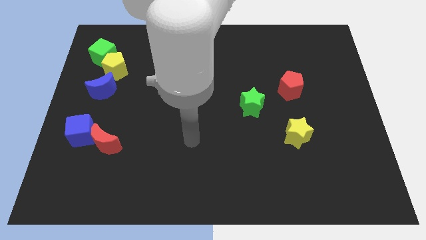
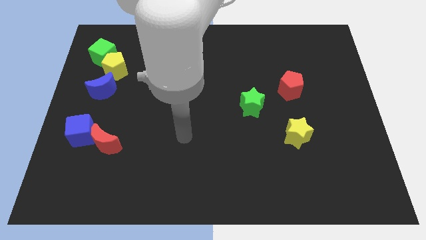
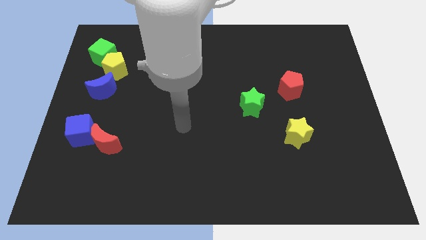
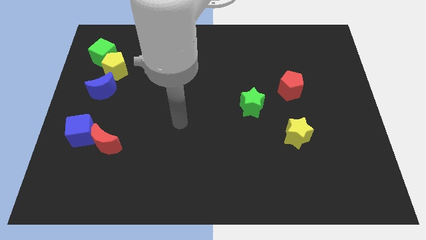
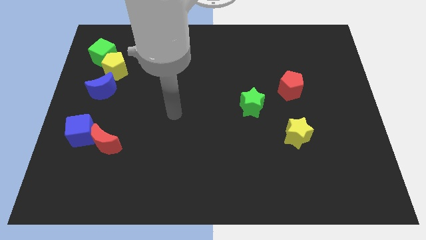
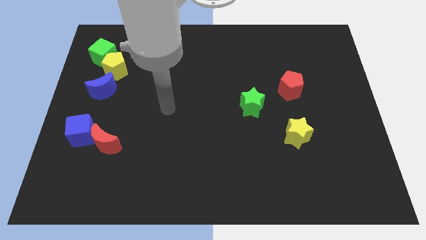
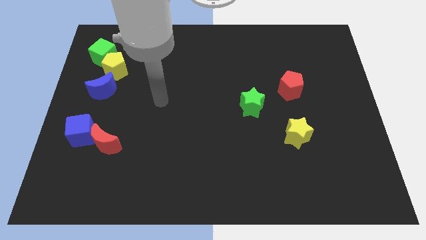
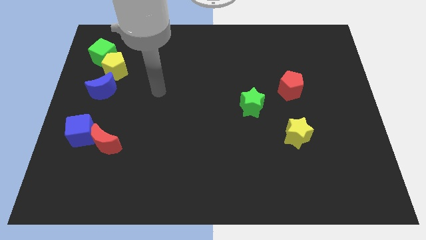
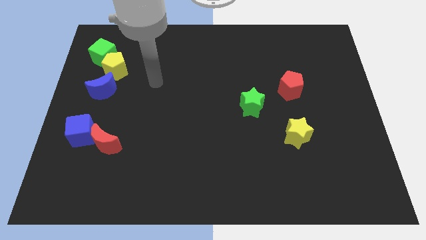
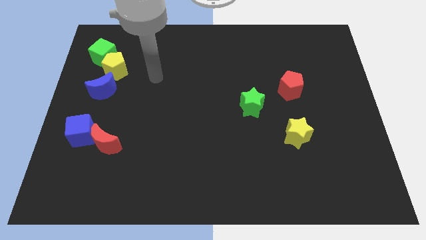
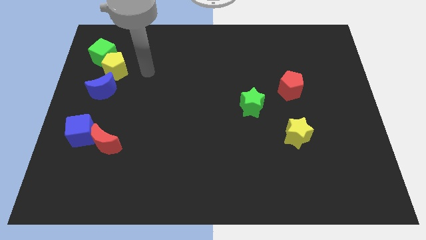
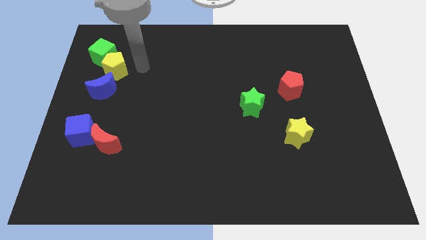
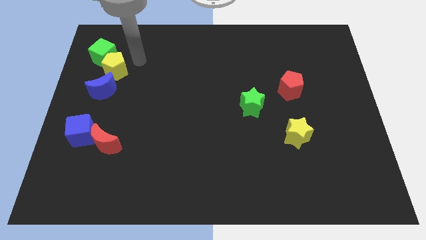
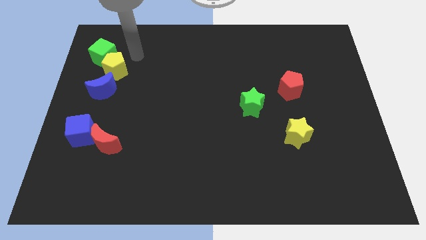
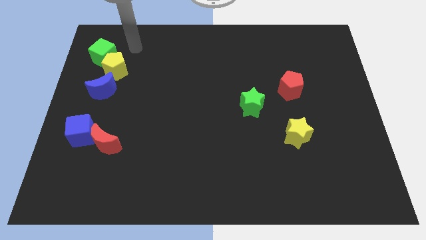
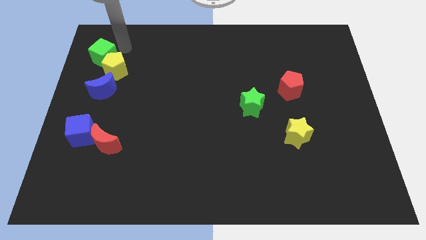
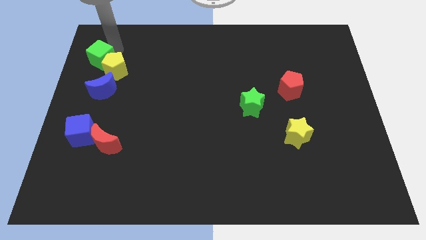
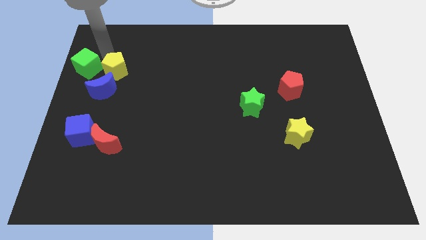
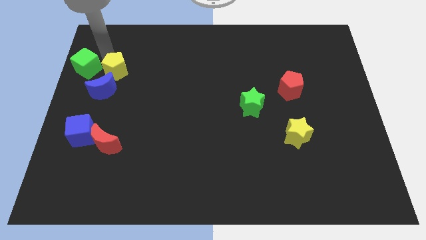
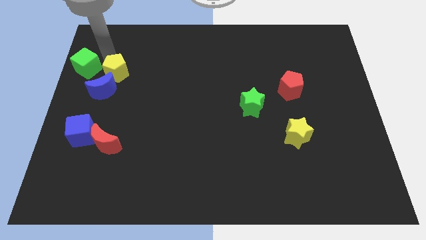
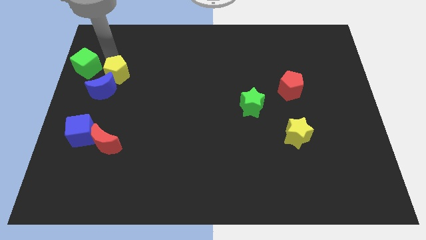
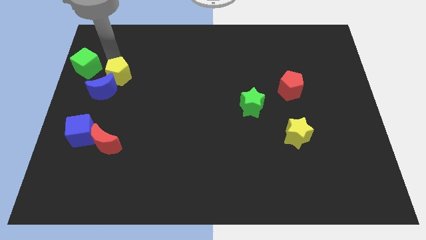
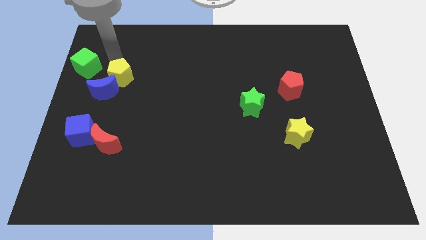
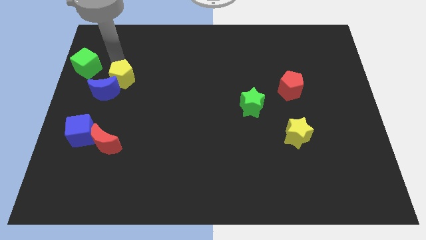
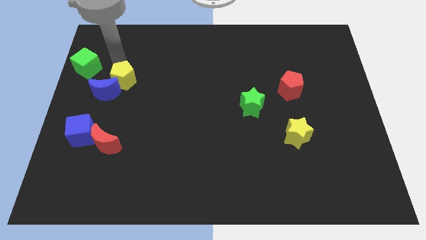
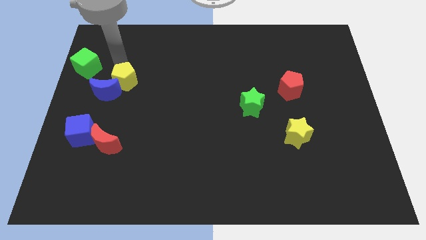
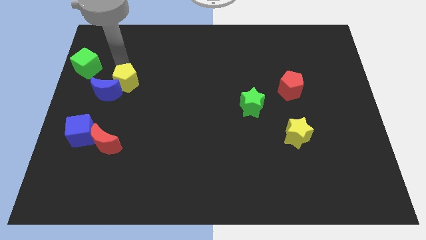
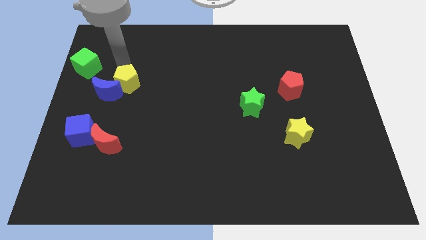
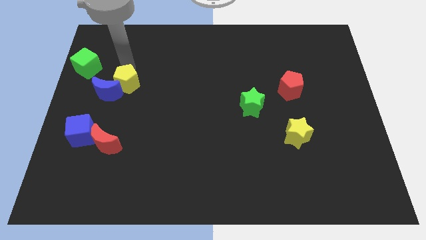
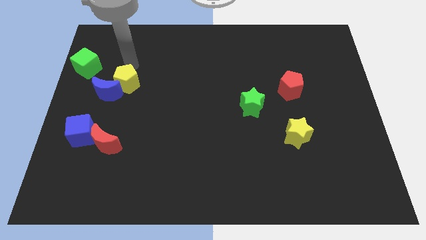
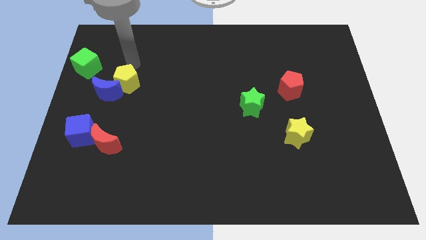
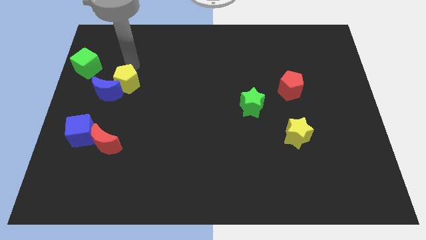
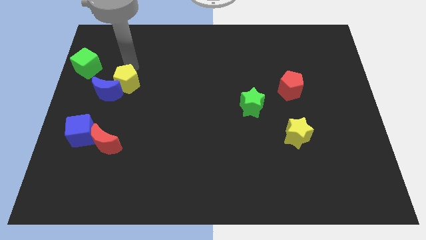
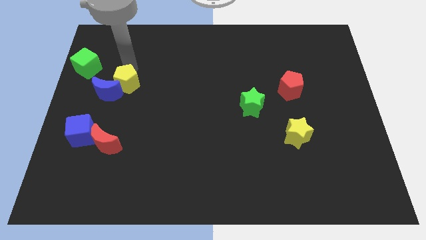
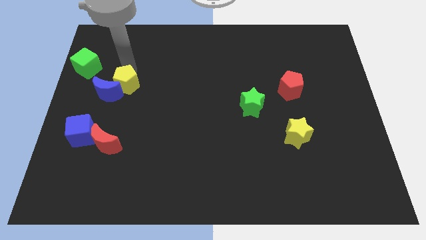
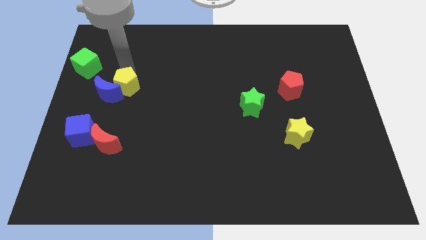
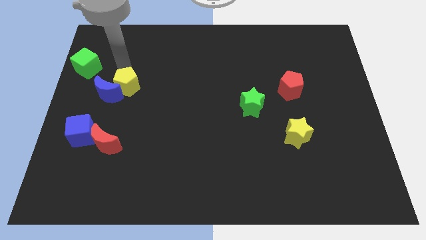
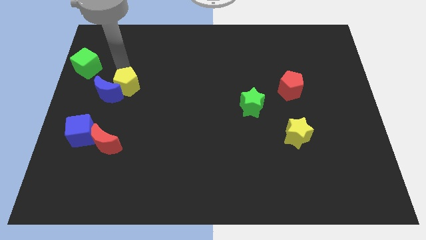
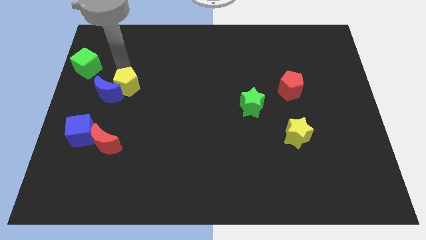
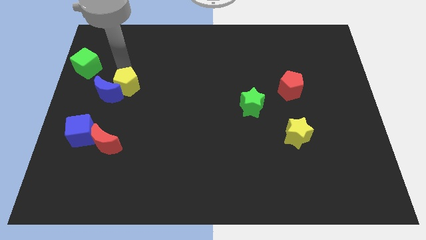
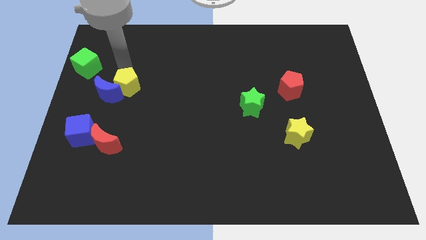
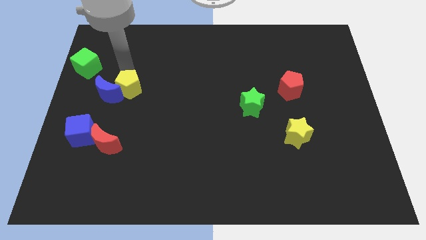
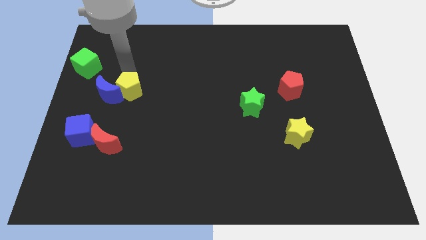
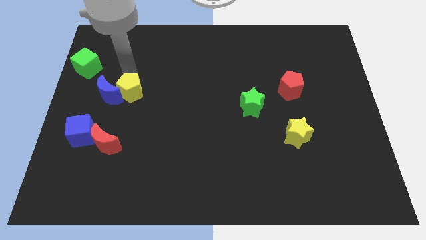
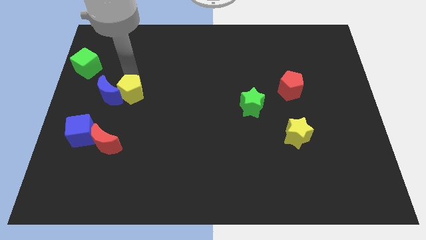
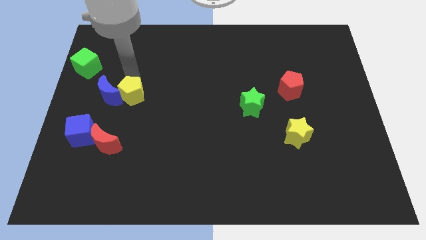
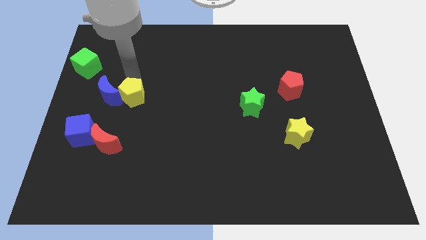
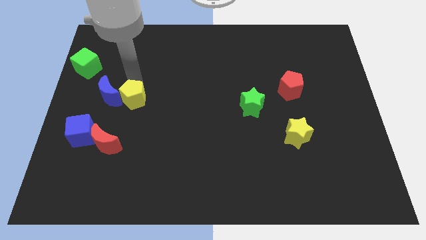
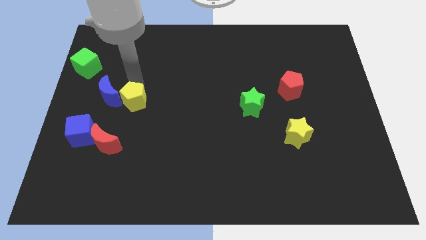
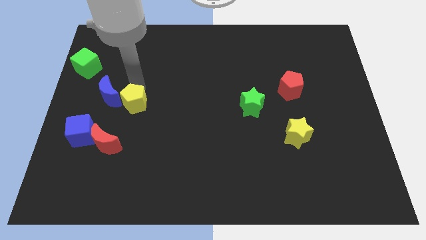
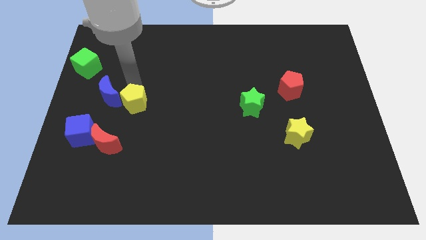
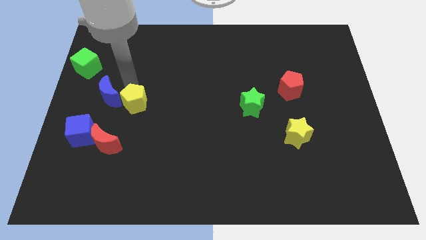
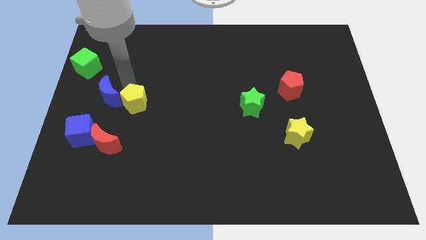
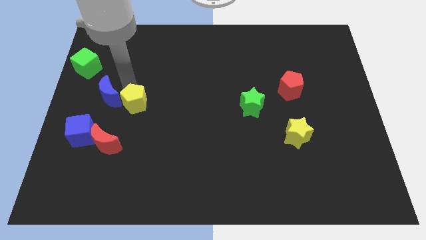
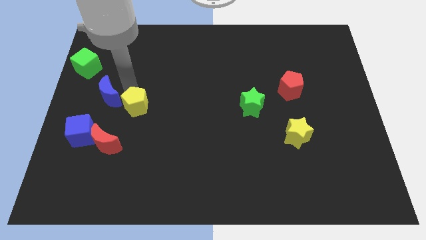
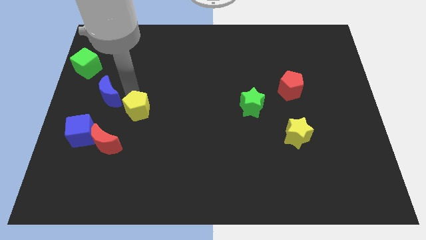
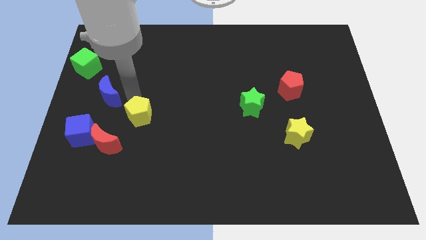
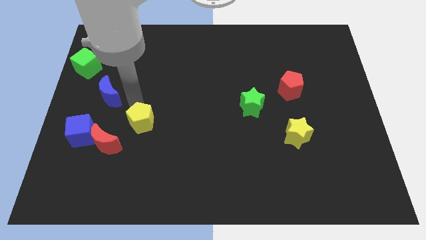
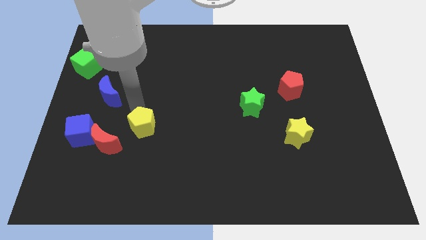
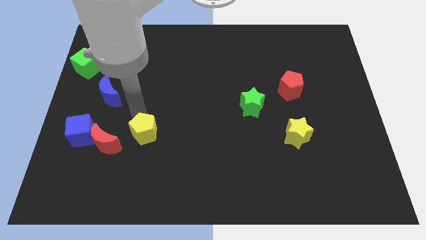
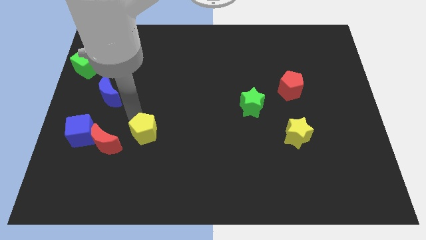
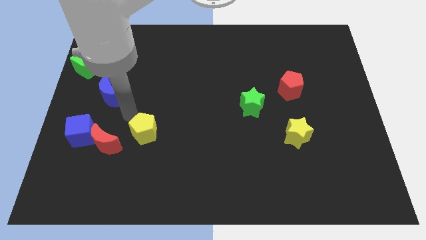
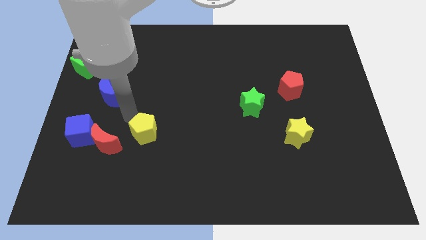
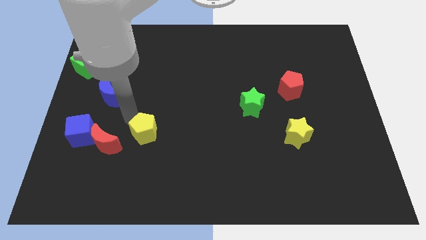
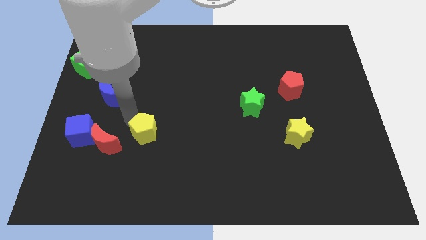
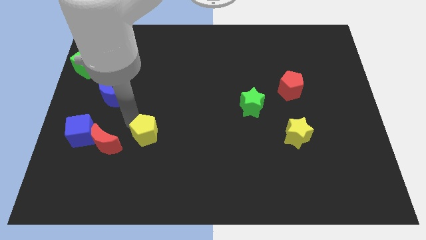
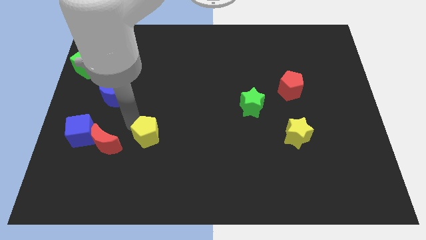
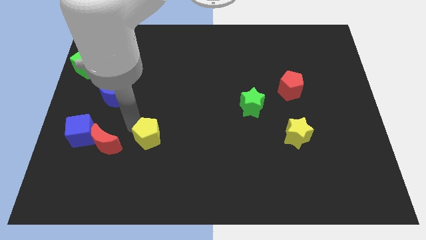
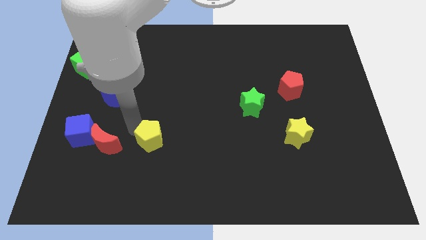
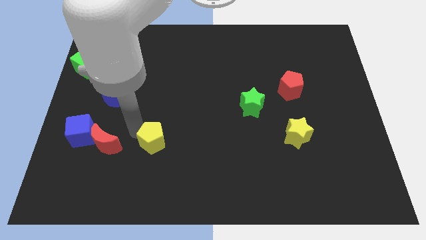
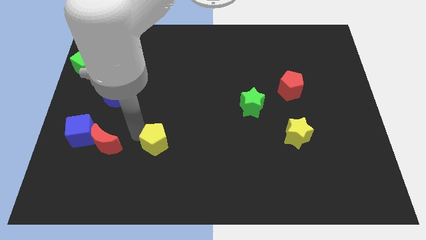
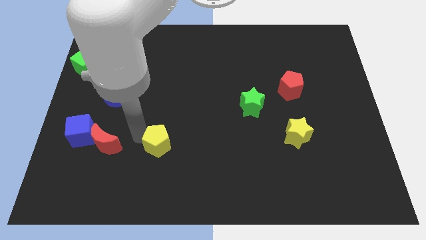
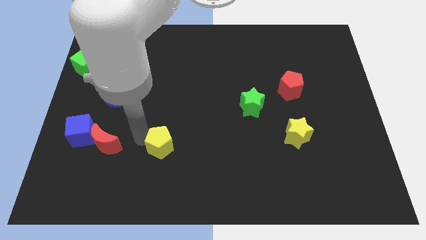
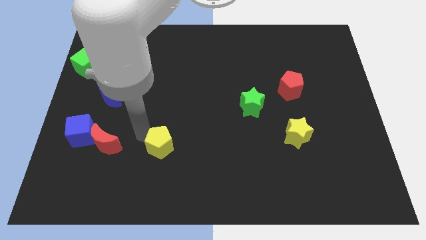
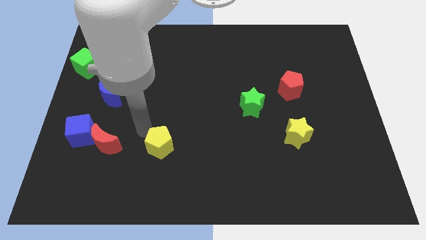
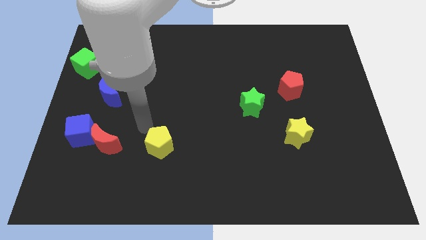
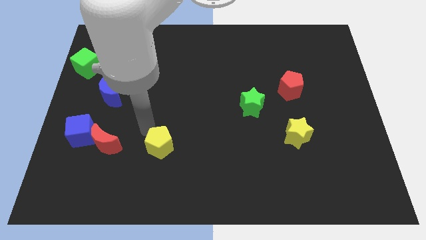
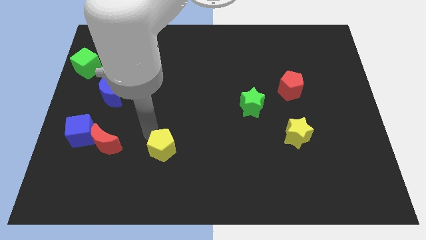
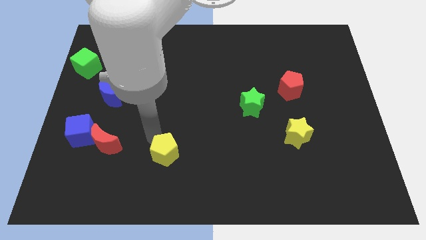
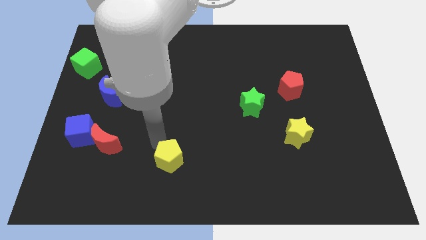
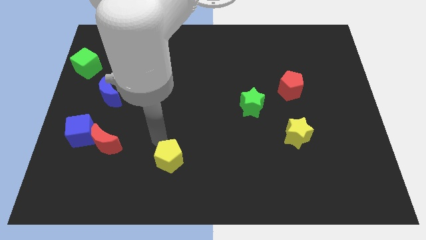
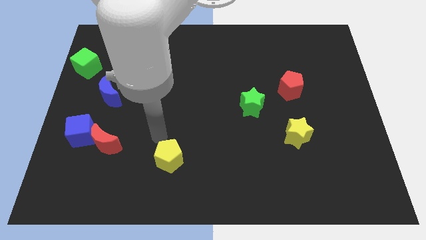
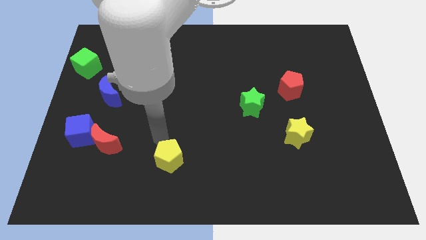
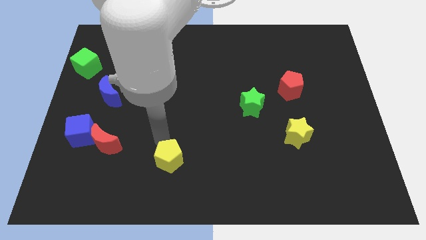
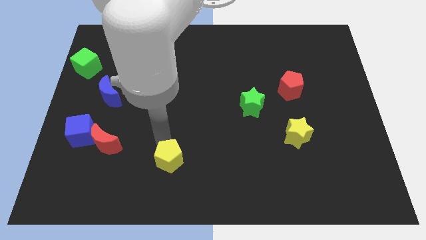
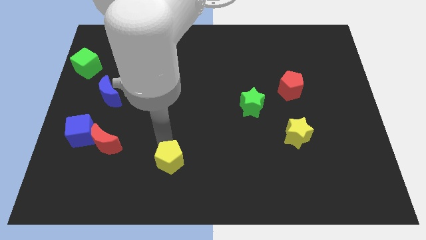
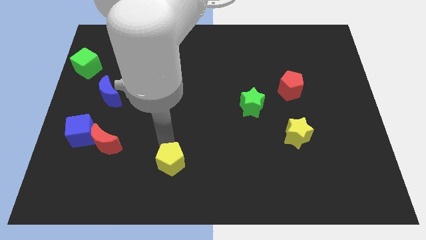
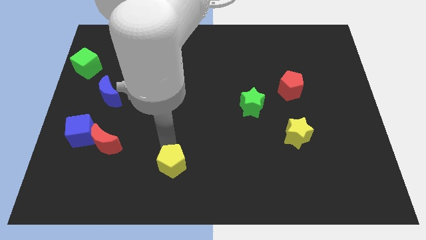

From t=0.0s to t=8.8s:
slide the yellow pentagon to the bottom side
